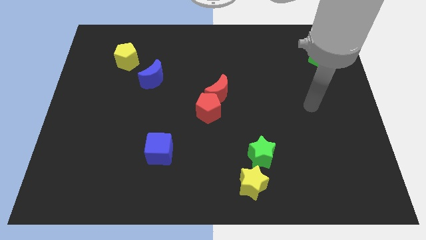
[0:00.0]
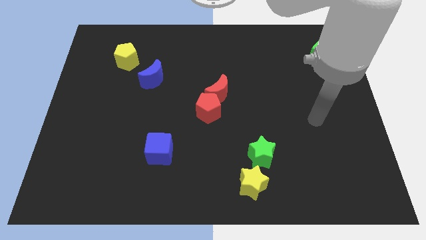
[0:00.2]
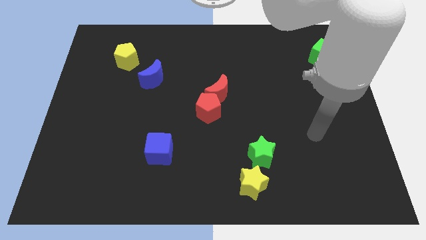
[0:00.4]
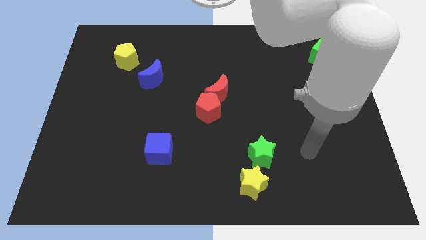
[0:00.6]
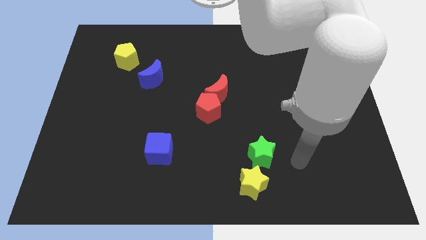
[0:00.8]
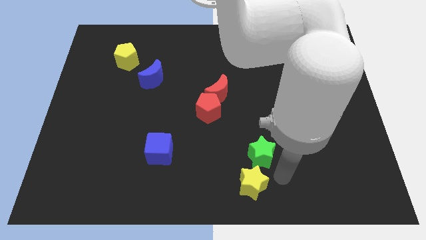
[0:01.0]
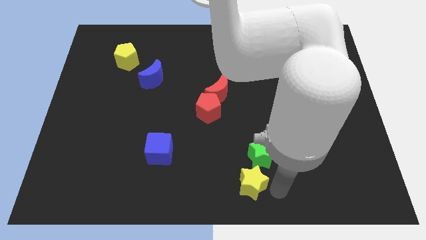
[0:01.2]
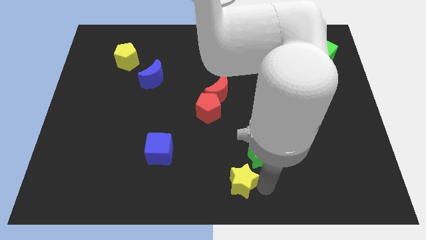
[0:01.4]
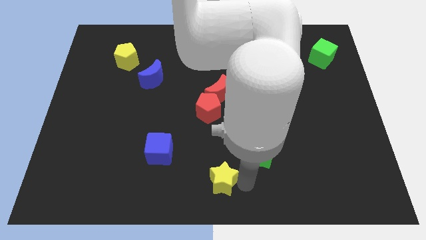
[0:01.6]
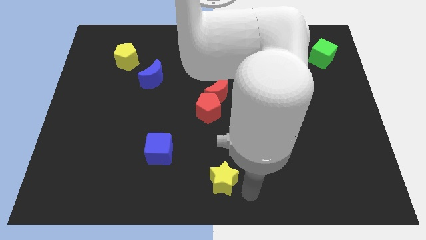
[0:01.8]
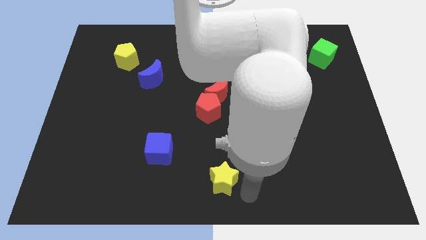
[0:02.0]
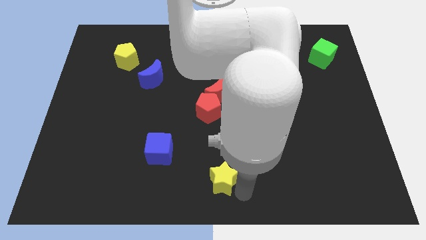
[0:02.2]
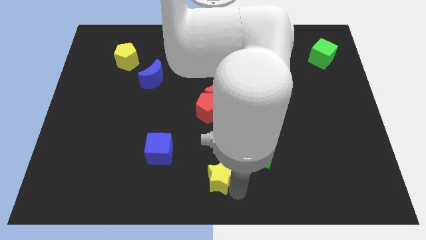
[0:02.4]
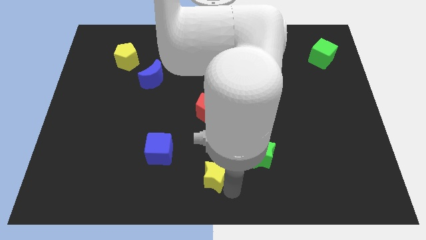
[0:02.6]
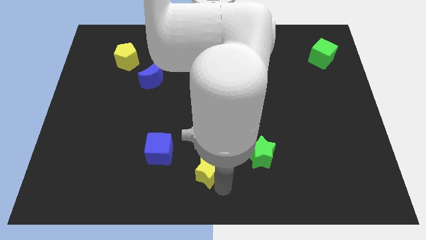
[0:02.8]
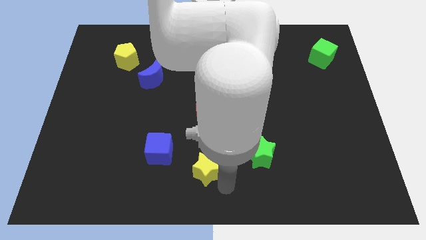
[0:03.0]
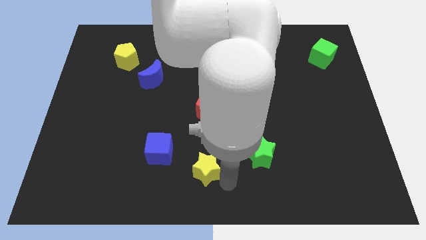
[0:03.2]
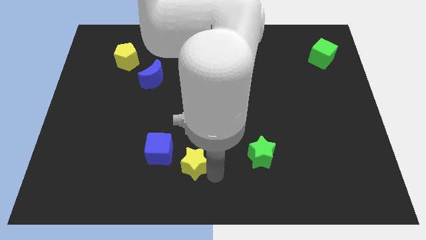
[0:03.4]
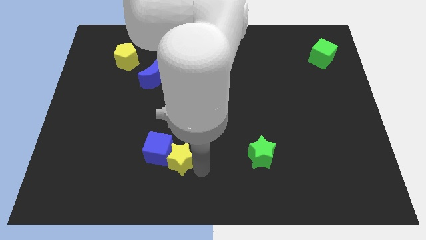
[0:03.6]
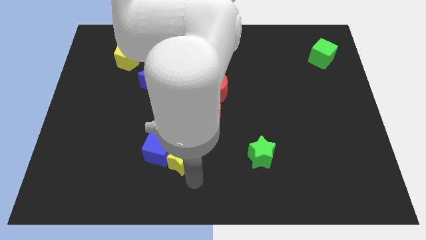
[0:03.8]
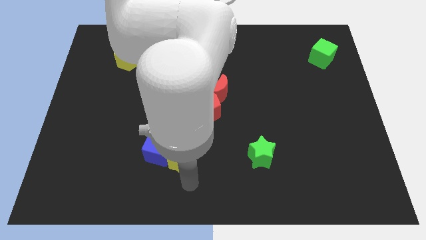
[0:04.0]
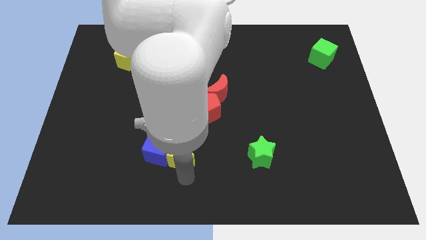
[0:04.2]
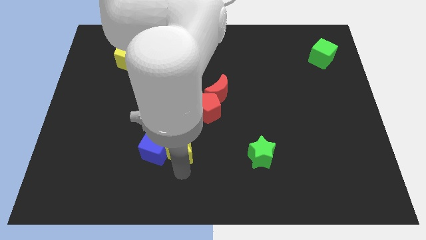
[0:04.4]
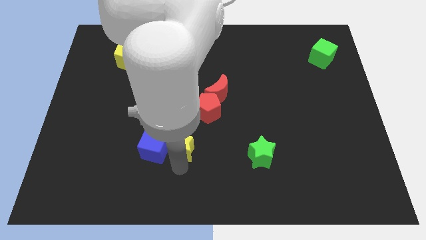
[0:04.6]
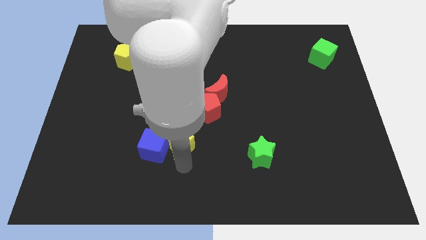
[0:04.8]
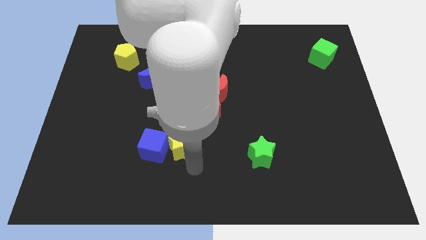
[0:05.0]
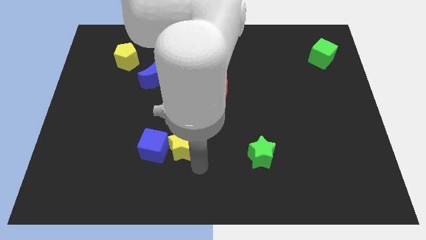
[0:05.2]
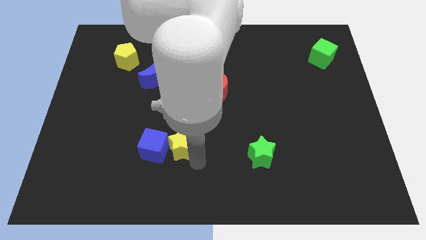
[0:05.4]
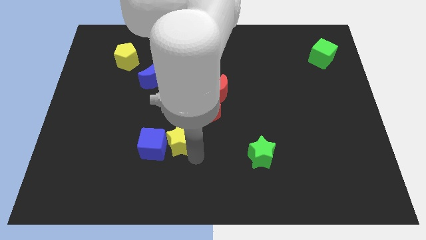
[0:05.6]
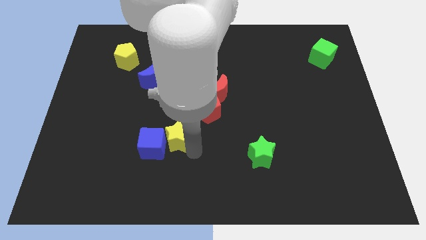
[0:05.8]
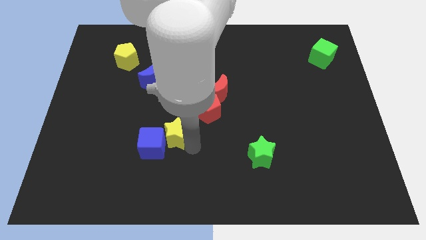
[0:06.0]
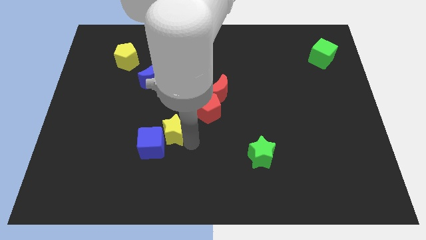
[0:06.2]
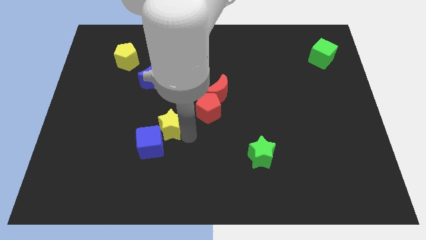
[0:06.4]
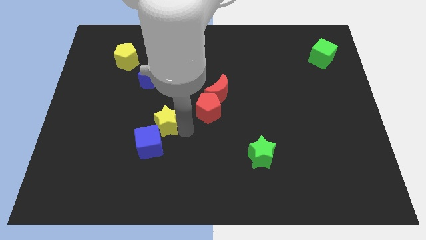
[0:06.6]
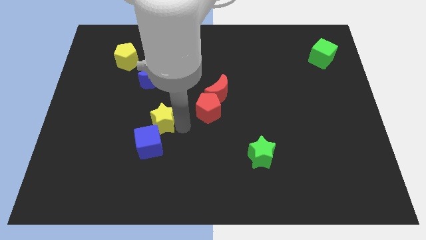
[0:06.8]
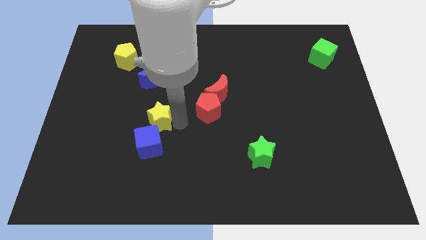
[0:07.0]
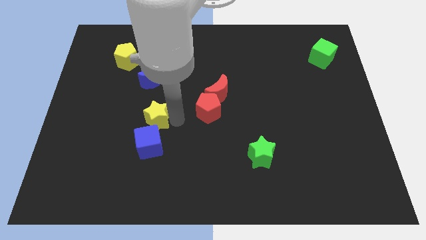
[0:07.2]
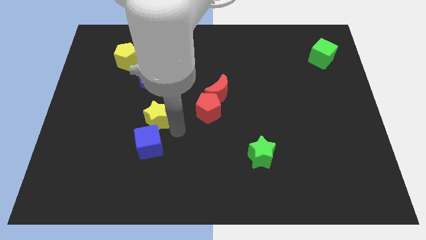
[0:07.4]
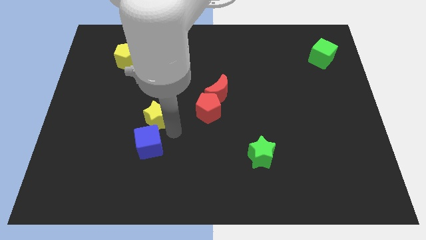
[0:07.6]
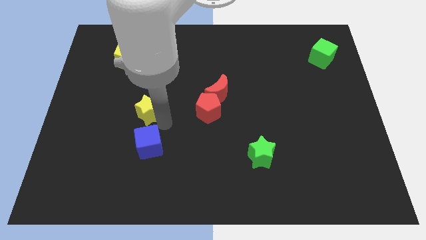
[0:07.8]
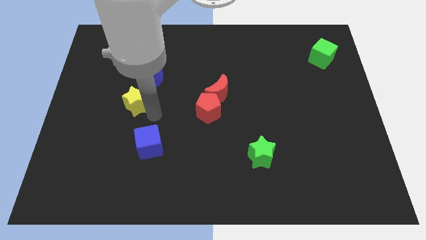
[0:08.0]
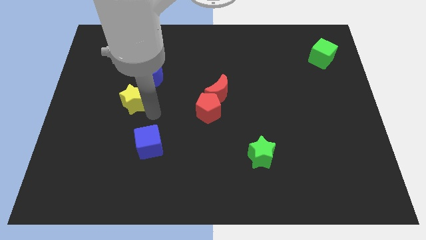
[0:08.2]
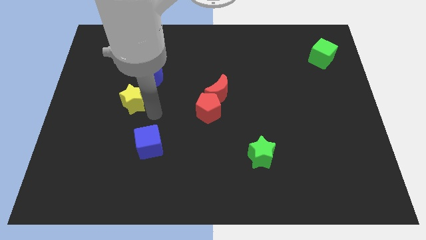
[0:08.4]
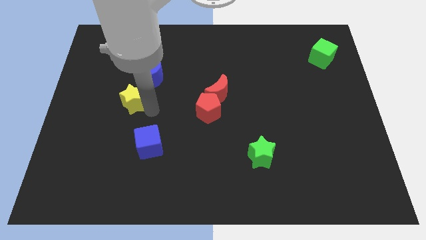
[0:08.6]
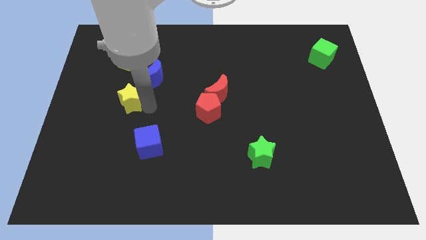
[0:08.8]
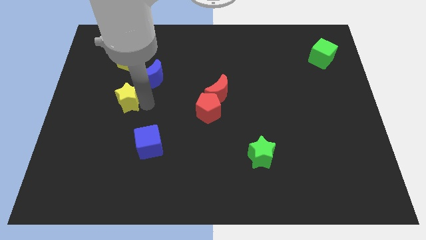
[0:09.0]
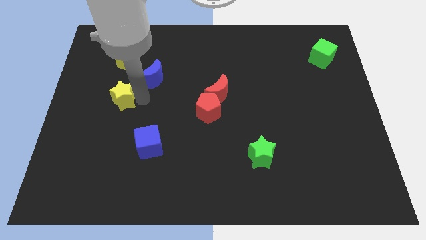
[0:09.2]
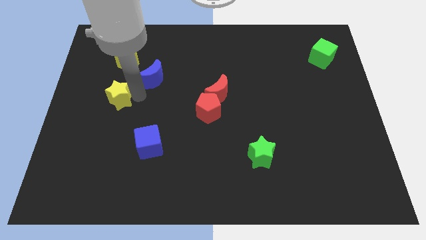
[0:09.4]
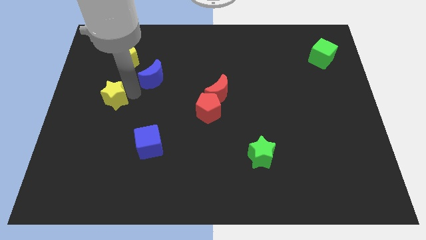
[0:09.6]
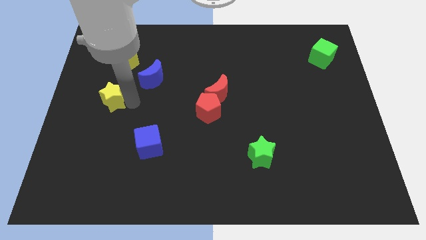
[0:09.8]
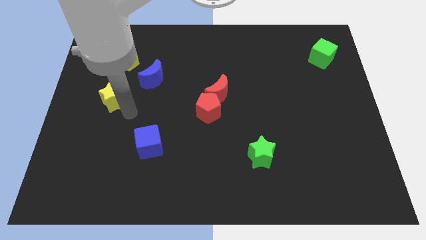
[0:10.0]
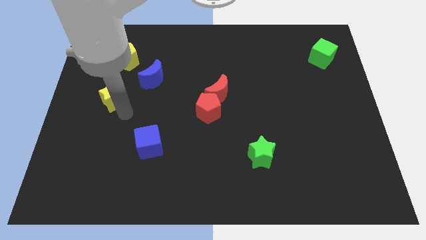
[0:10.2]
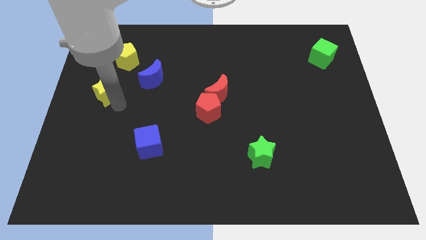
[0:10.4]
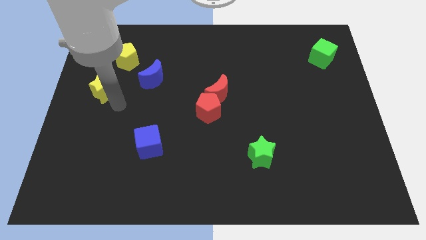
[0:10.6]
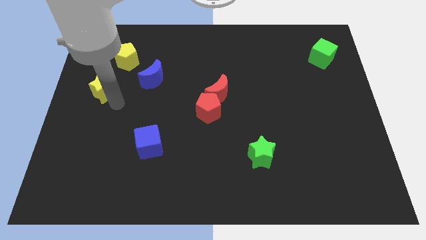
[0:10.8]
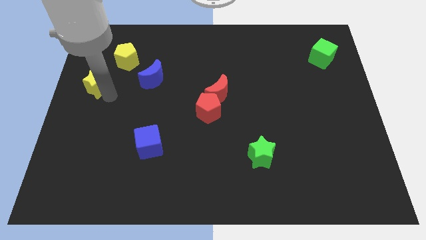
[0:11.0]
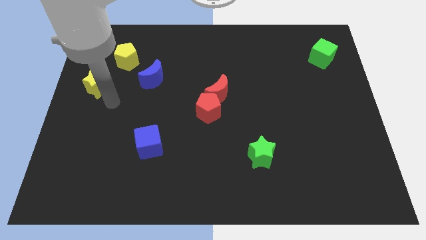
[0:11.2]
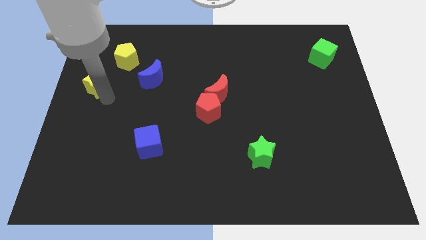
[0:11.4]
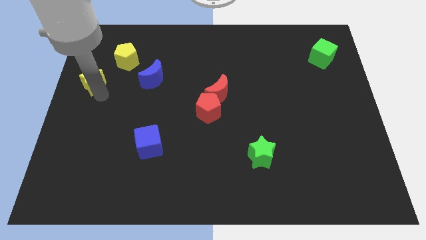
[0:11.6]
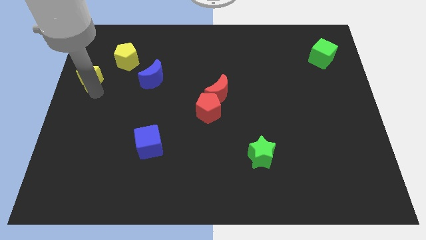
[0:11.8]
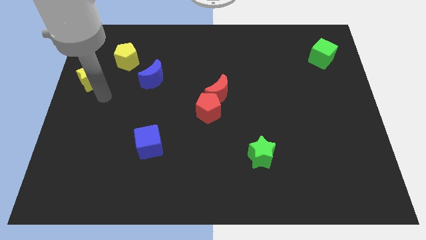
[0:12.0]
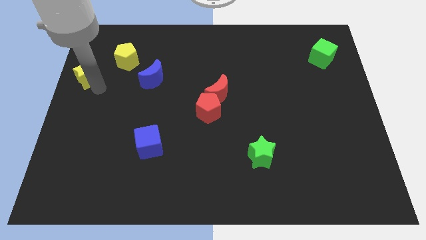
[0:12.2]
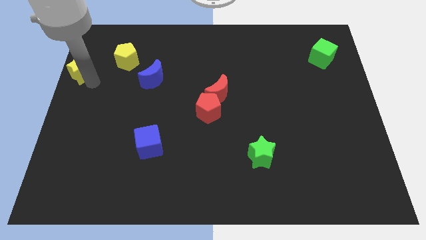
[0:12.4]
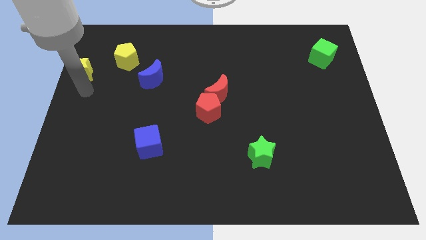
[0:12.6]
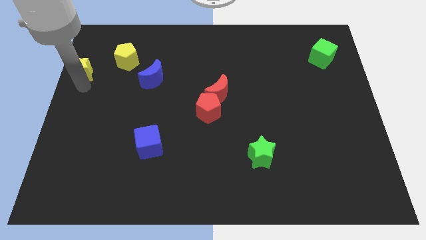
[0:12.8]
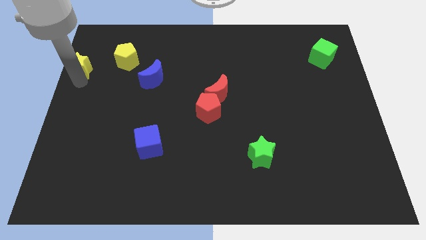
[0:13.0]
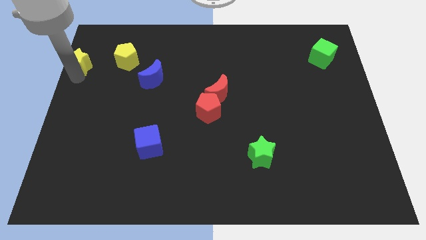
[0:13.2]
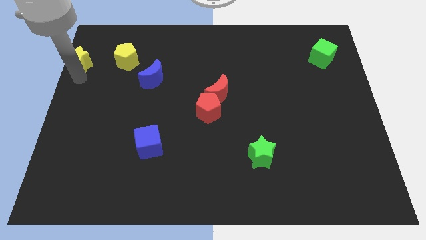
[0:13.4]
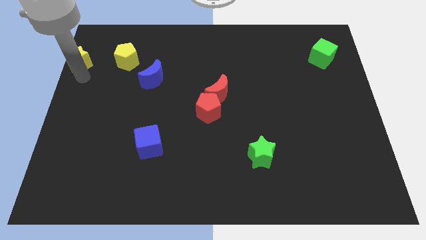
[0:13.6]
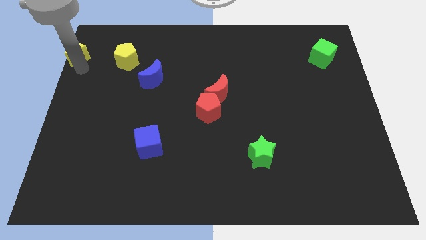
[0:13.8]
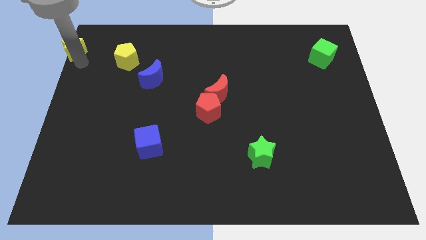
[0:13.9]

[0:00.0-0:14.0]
slide the yellow star to the upper left corner

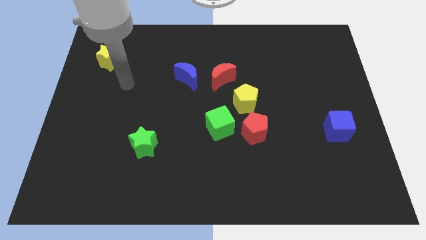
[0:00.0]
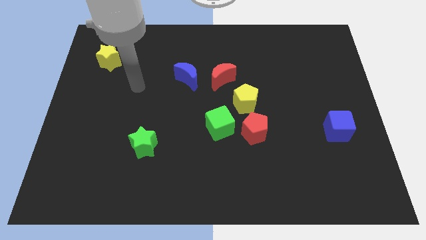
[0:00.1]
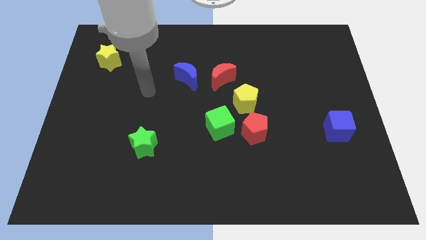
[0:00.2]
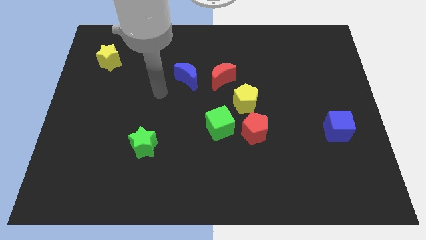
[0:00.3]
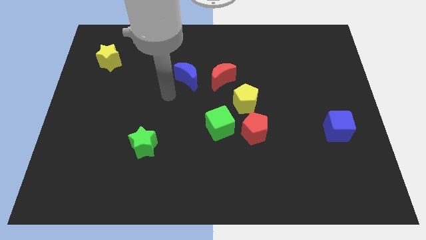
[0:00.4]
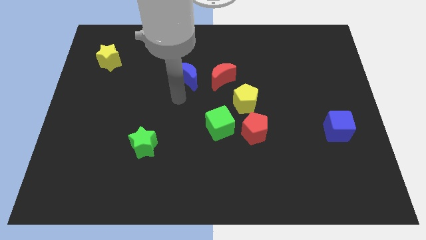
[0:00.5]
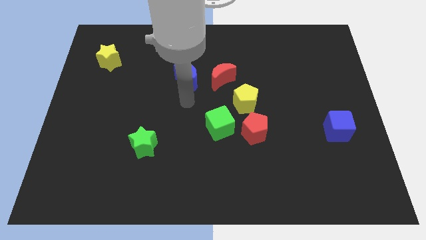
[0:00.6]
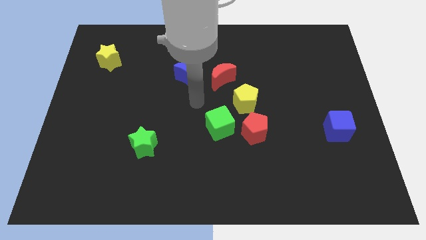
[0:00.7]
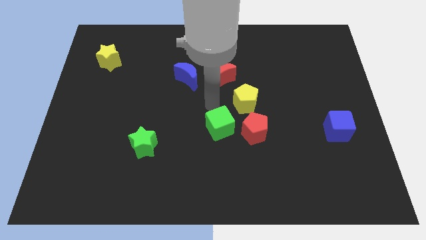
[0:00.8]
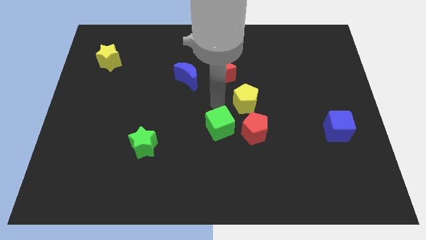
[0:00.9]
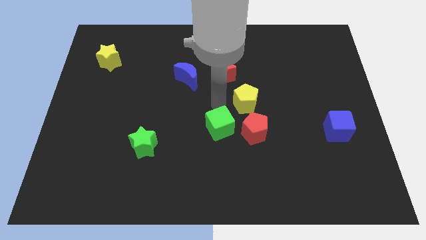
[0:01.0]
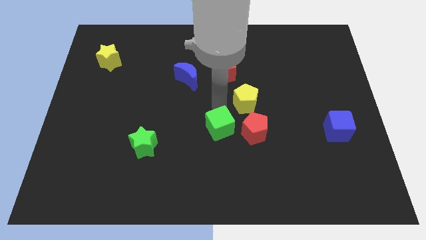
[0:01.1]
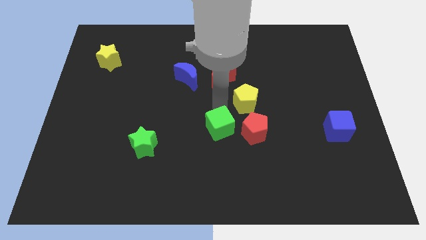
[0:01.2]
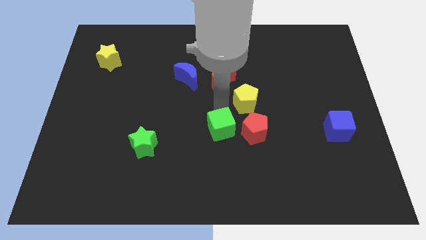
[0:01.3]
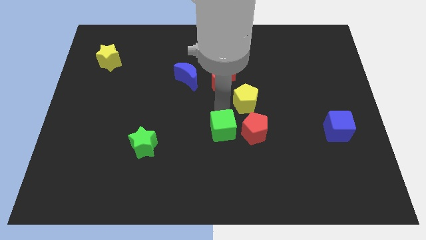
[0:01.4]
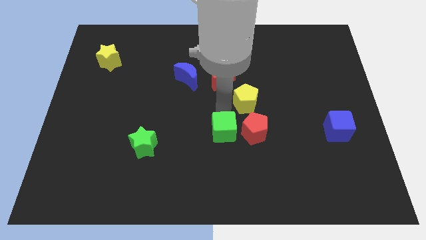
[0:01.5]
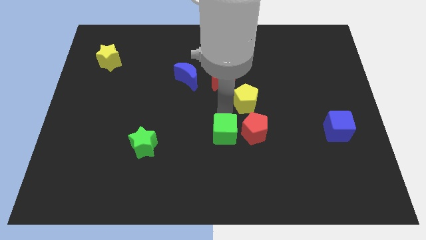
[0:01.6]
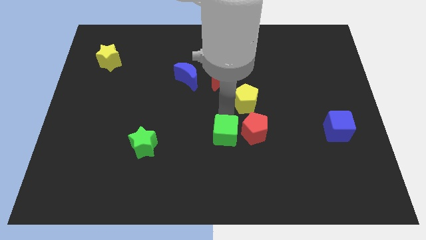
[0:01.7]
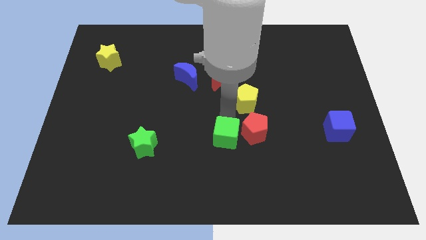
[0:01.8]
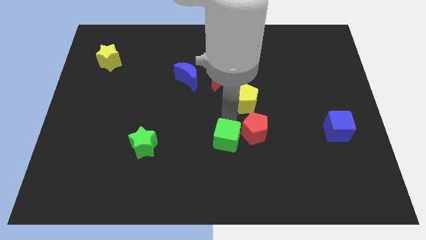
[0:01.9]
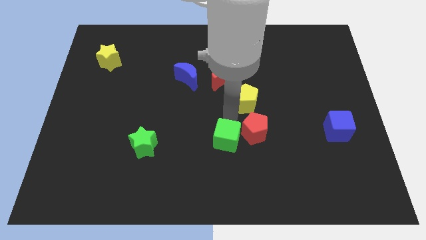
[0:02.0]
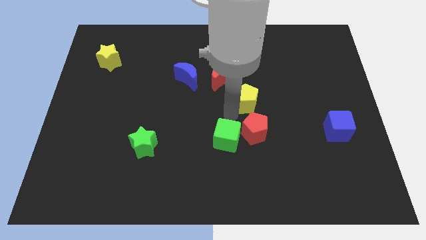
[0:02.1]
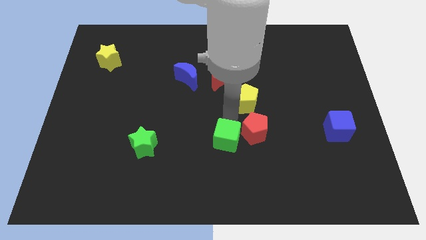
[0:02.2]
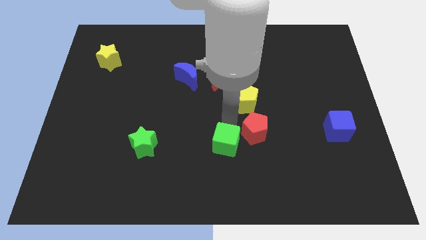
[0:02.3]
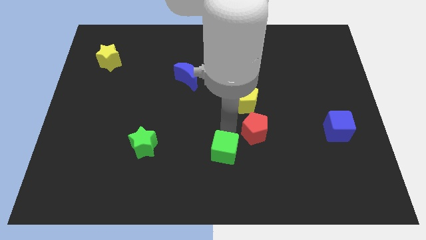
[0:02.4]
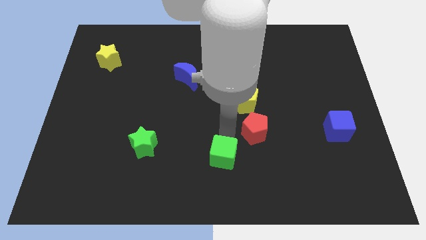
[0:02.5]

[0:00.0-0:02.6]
push the green cube to the bottom side
